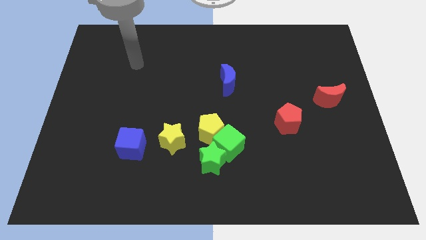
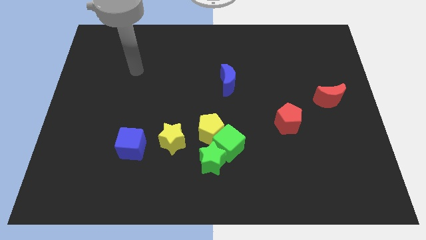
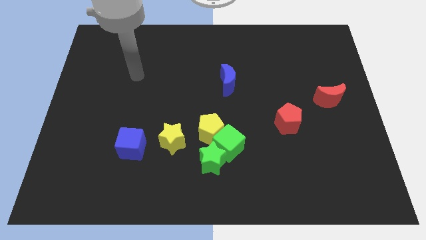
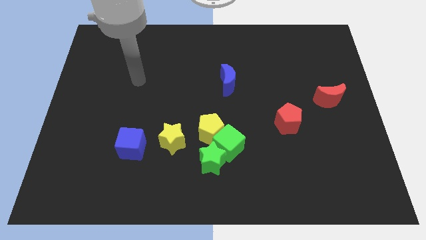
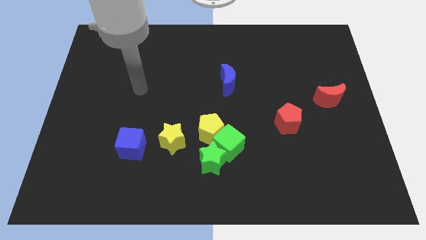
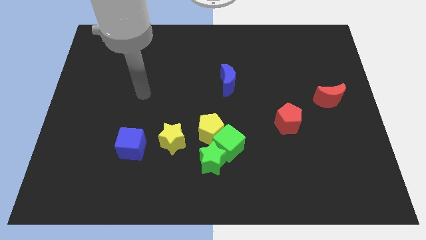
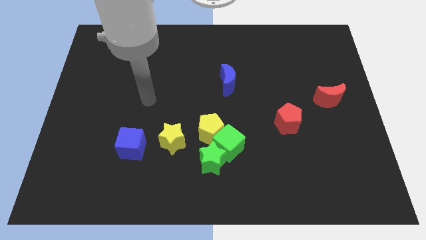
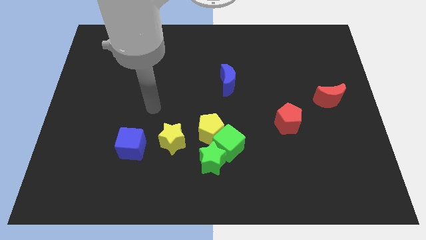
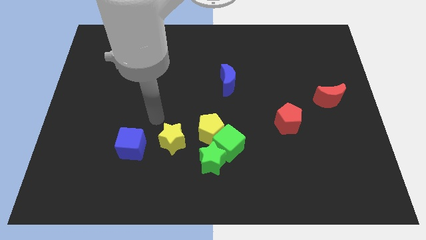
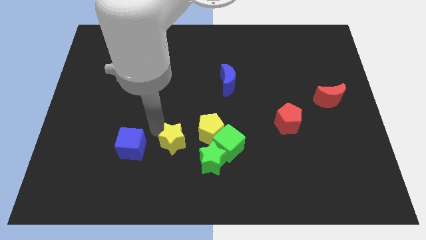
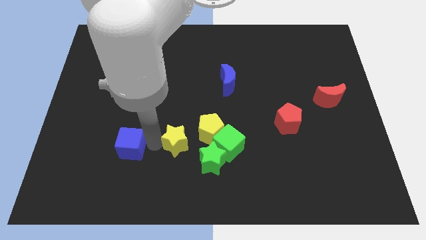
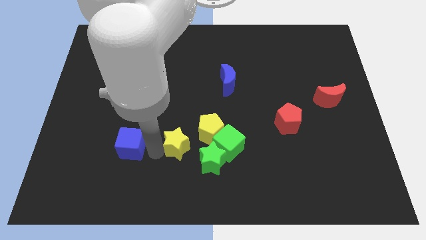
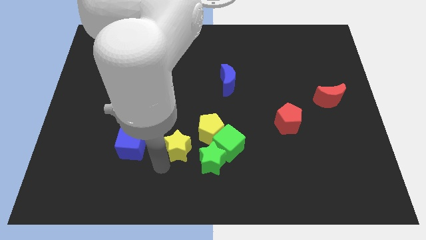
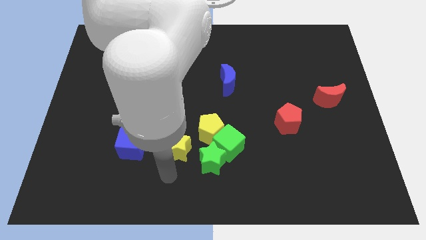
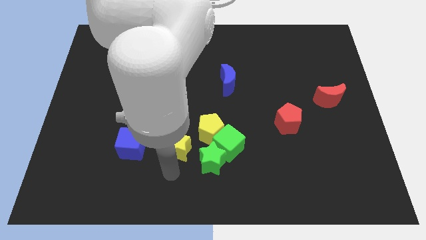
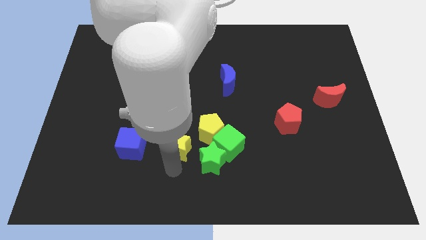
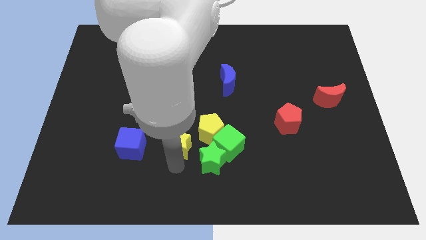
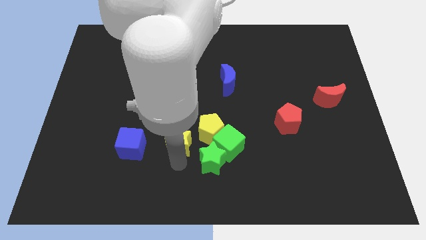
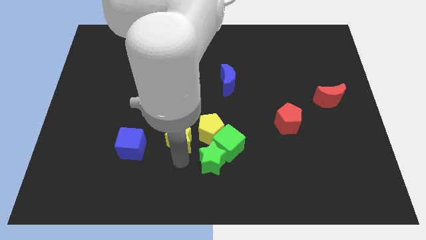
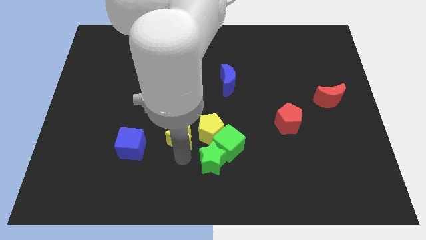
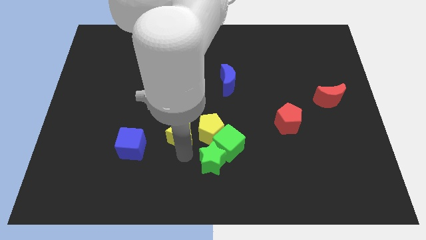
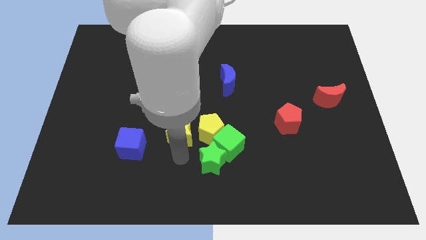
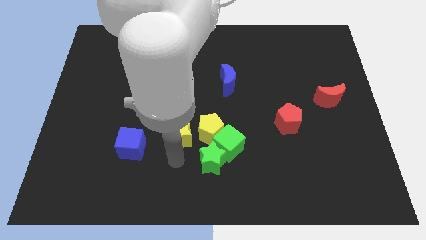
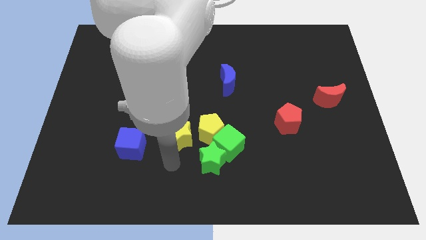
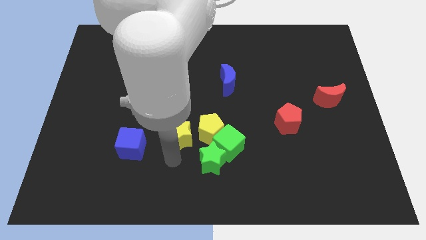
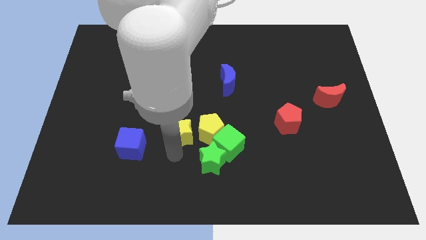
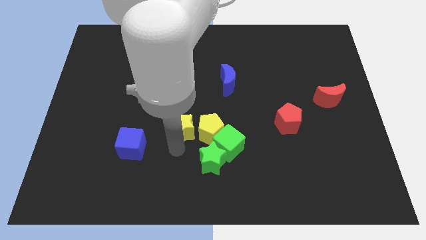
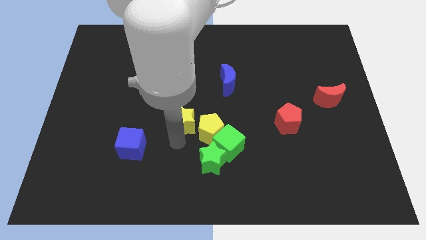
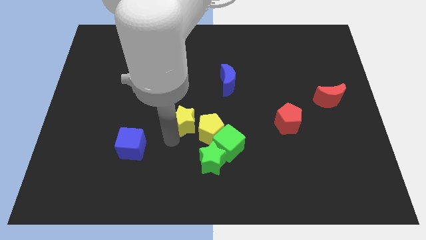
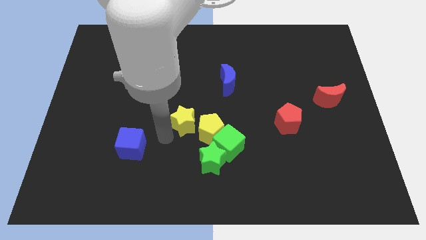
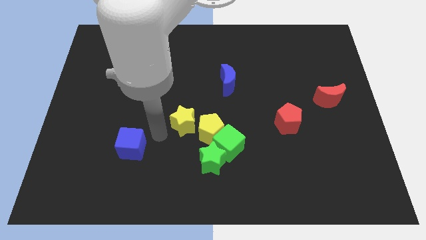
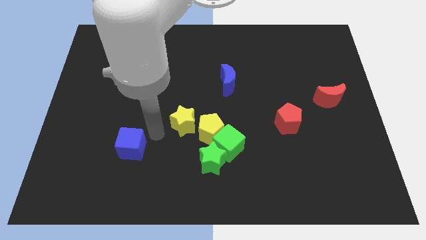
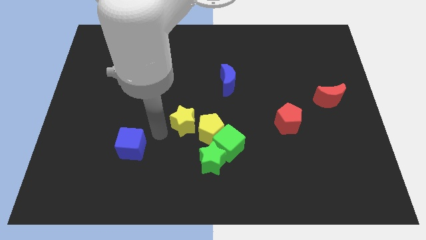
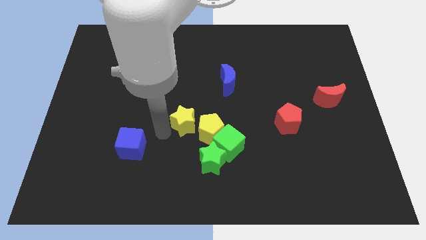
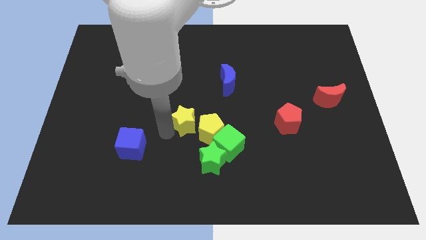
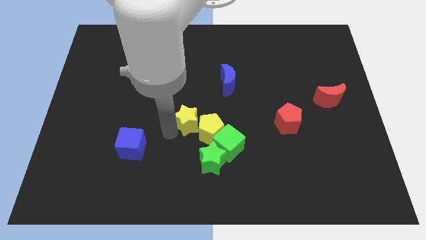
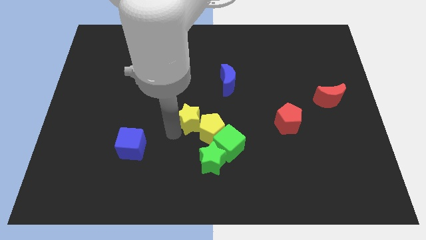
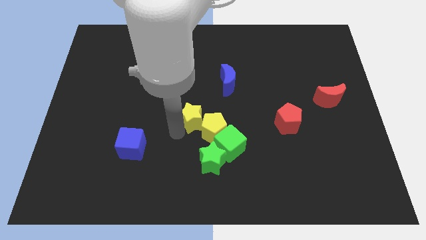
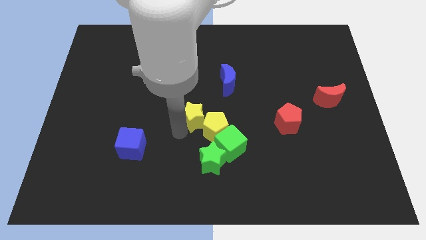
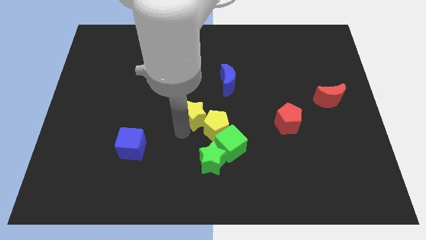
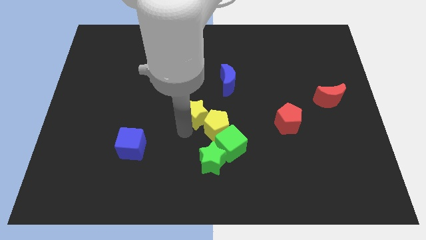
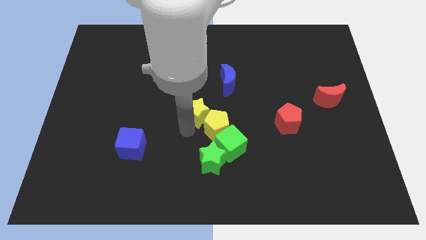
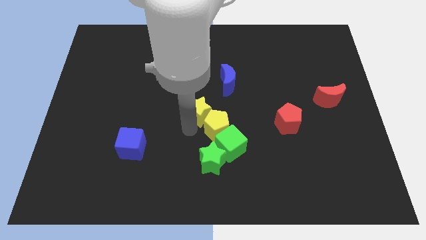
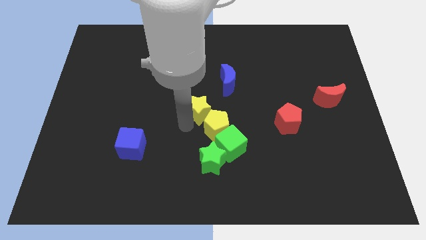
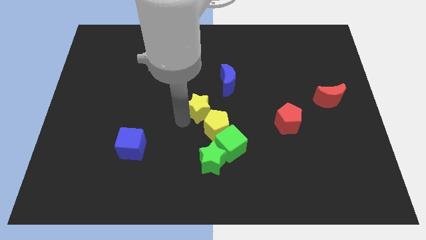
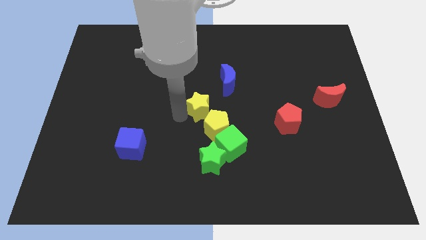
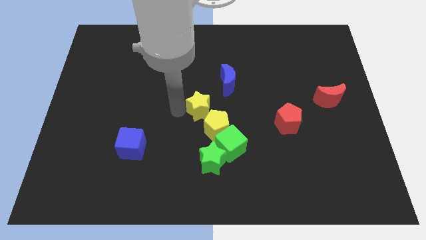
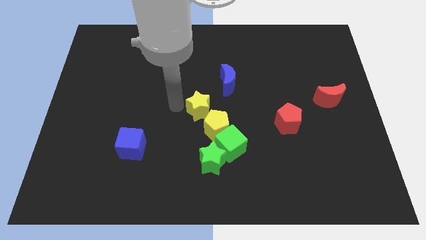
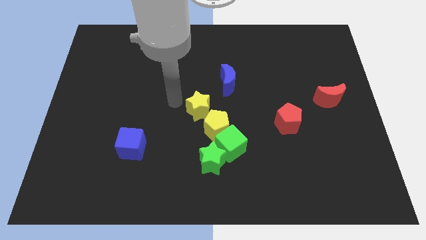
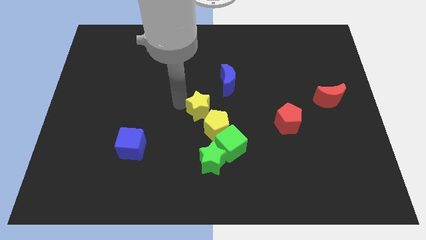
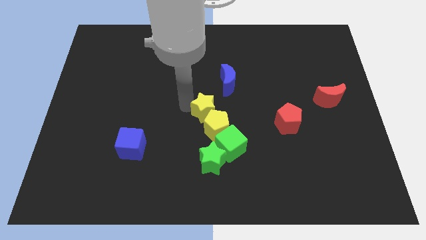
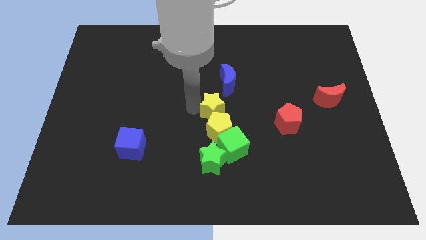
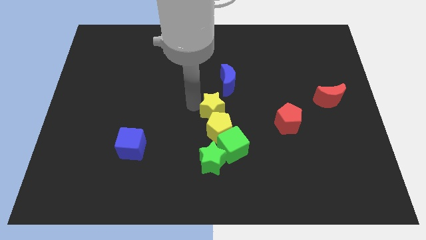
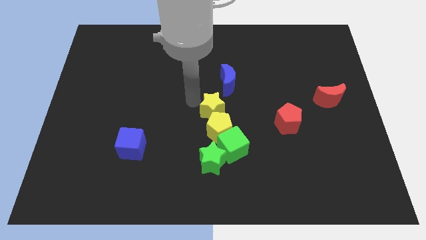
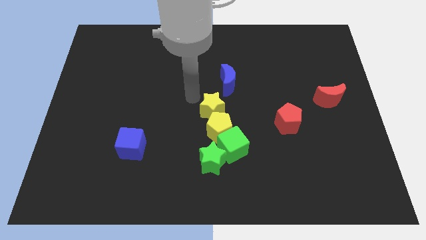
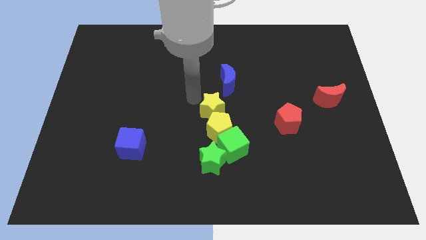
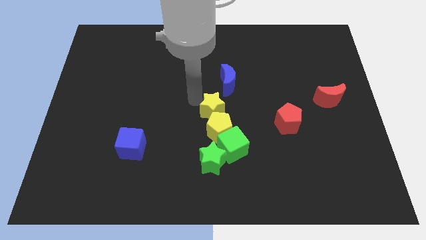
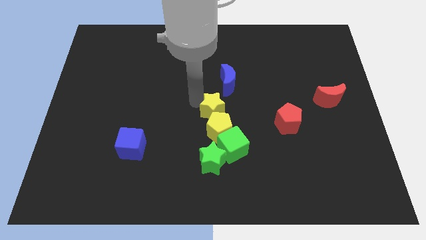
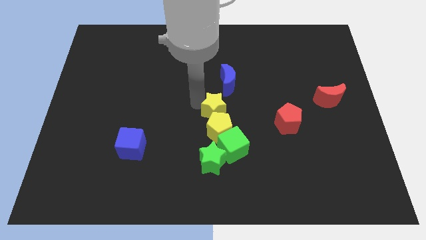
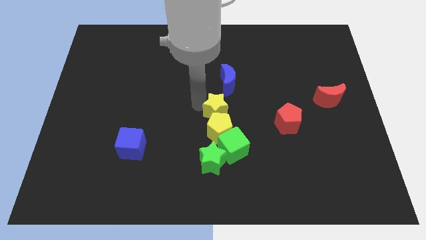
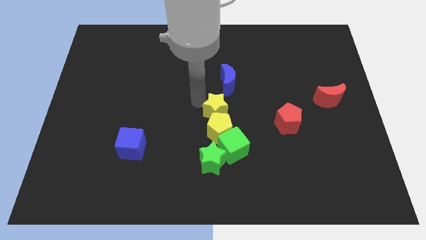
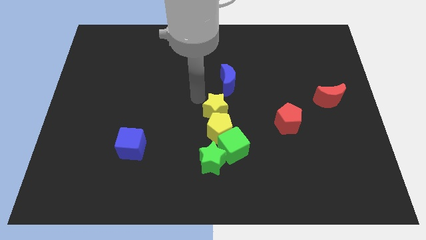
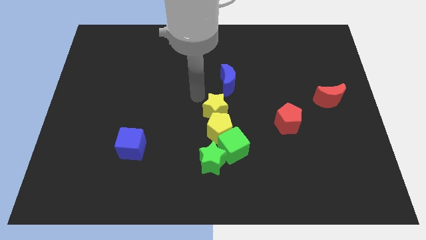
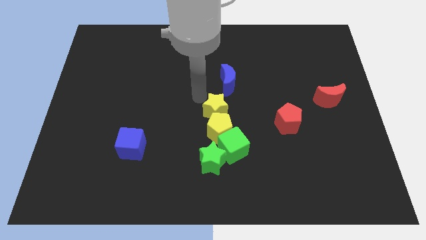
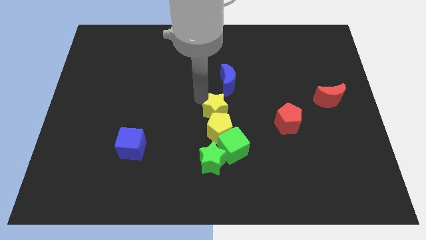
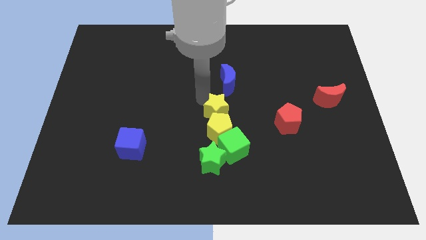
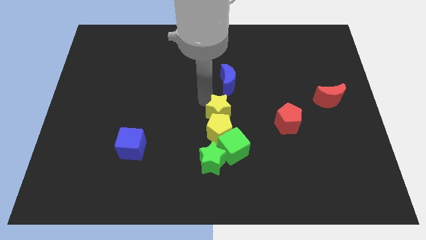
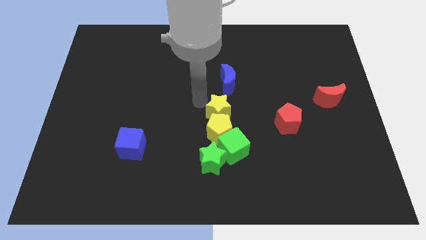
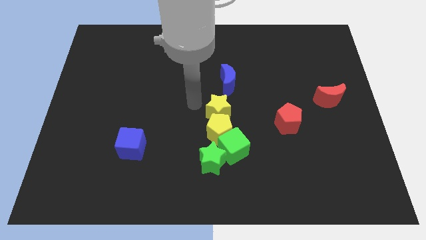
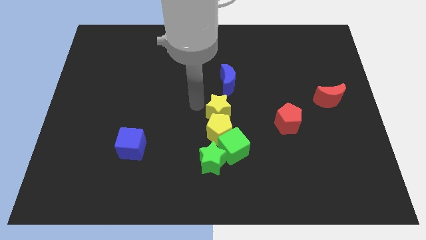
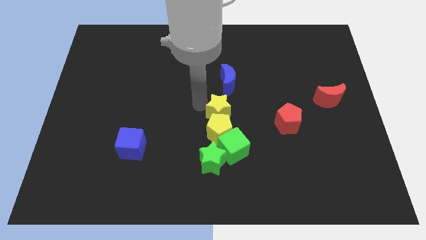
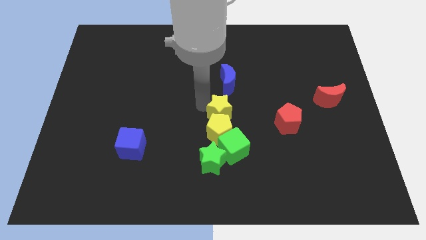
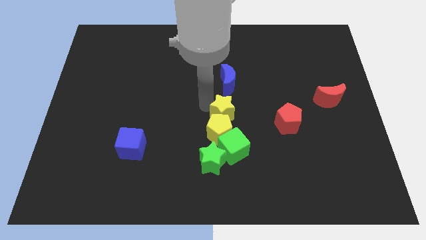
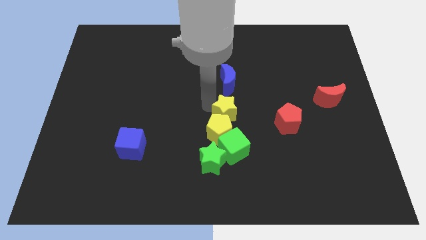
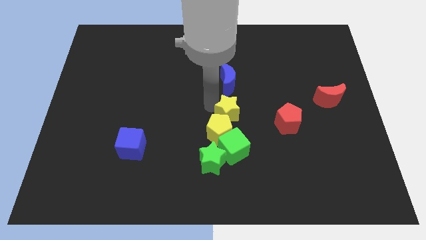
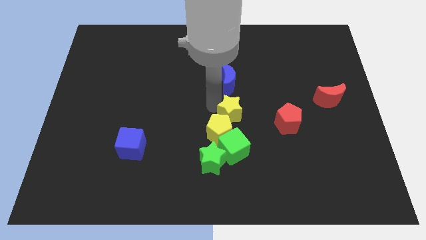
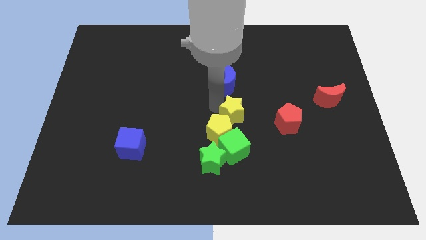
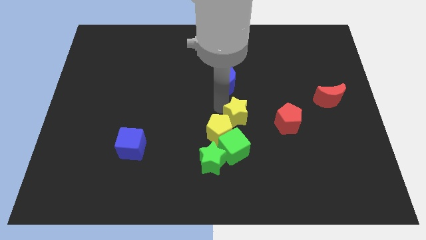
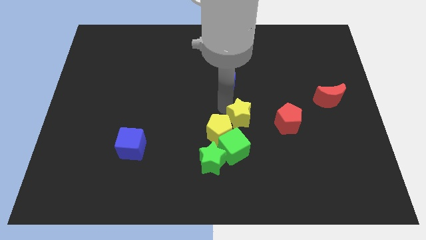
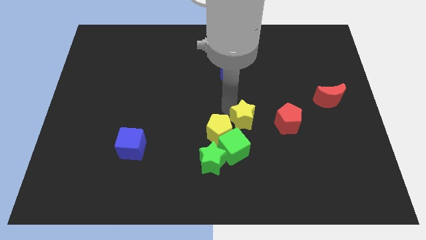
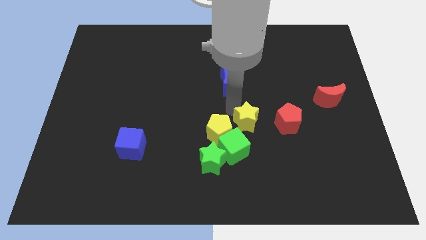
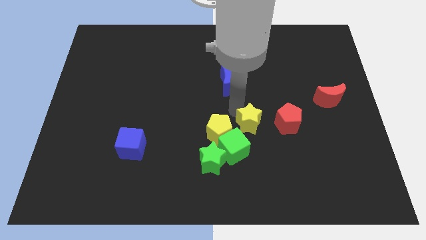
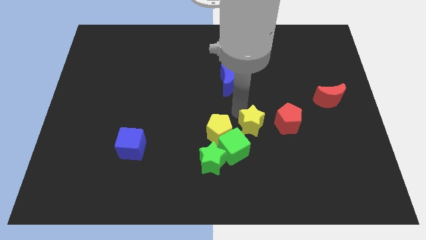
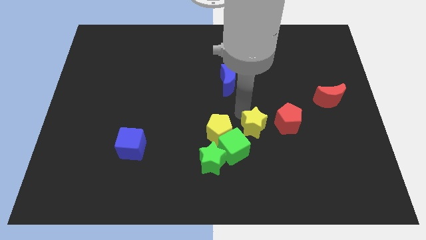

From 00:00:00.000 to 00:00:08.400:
put the yellow star to the bottom left side of the red pentagon

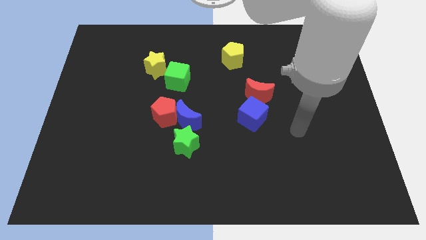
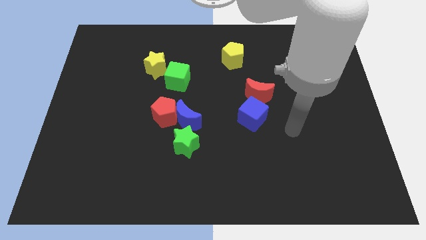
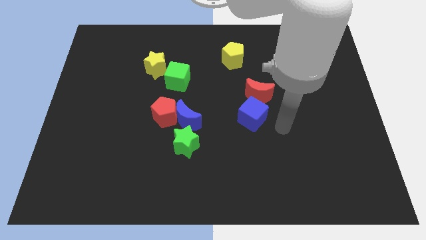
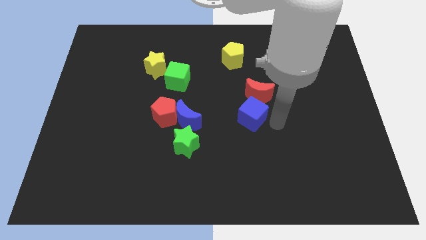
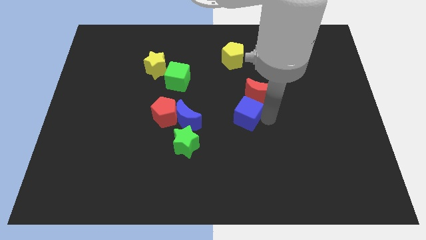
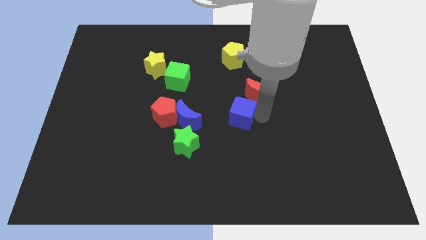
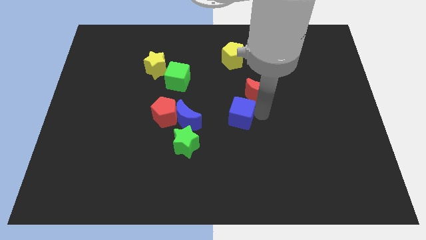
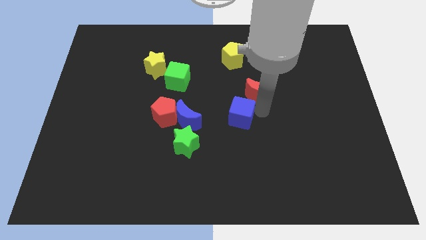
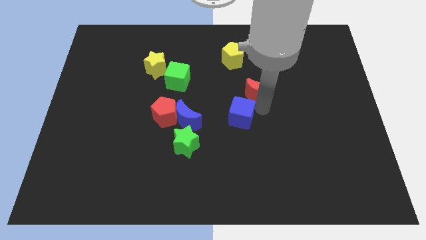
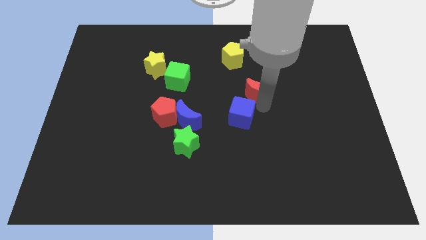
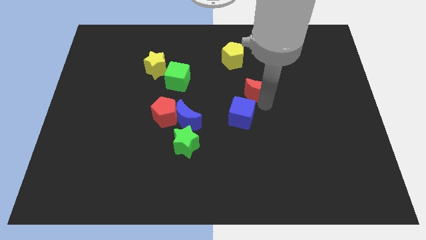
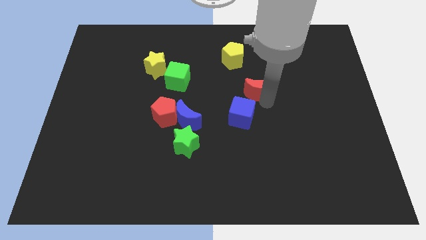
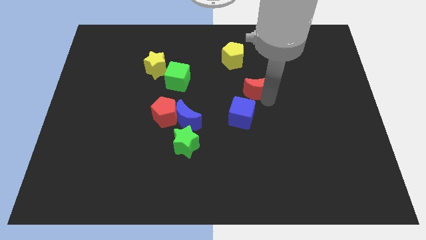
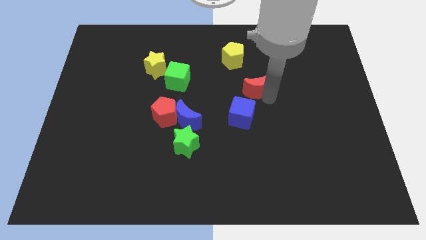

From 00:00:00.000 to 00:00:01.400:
slide the red moon to the bottom right of the yellow pentagon
